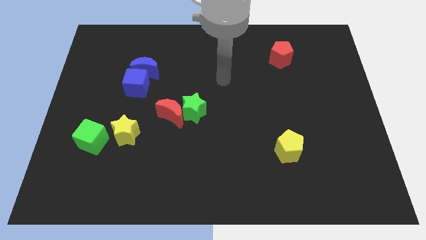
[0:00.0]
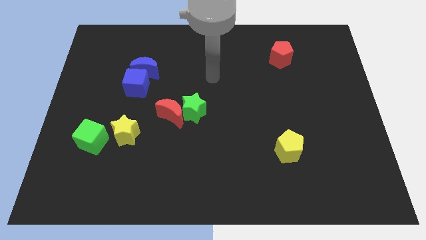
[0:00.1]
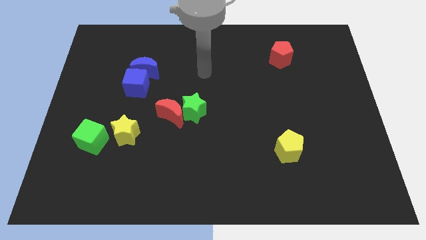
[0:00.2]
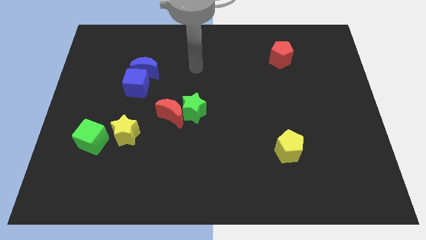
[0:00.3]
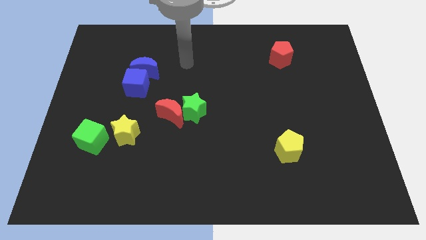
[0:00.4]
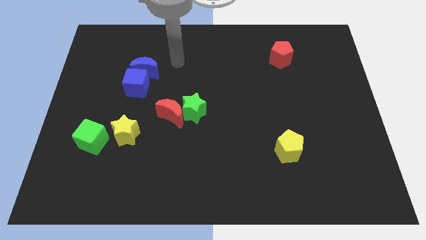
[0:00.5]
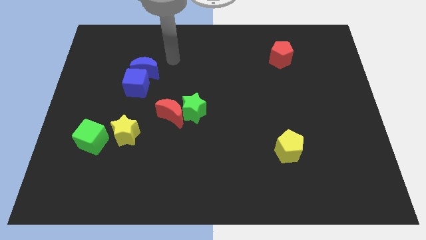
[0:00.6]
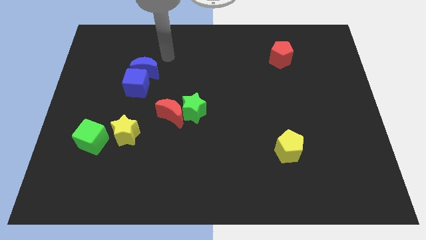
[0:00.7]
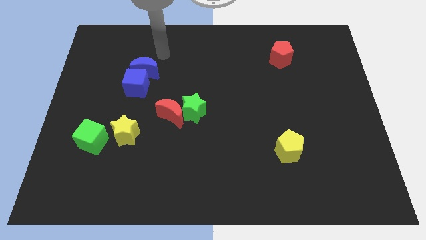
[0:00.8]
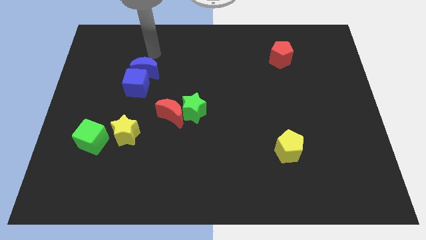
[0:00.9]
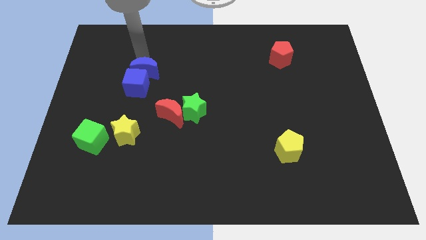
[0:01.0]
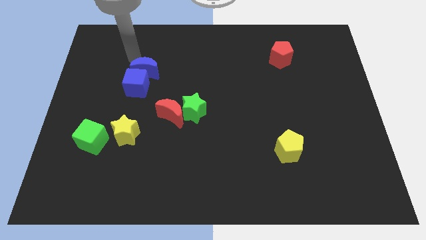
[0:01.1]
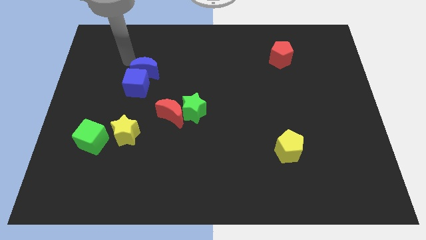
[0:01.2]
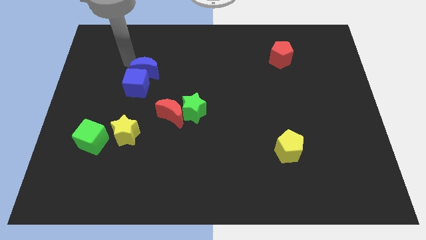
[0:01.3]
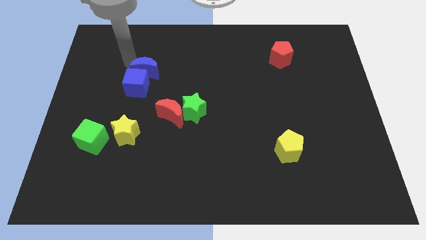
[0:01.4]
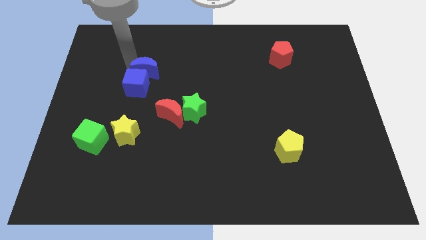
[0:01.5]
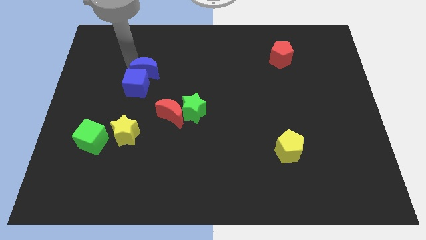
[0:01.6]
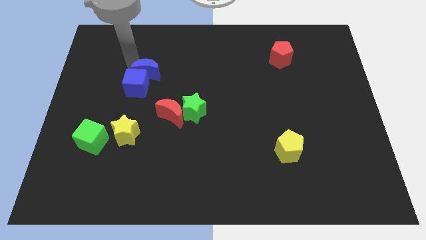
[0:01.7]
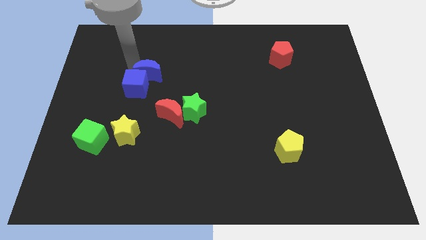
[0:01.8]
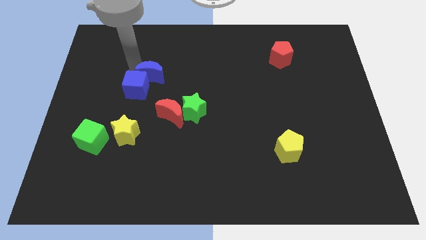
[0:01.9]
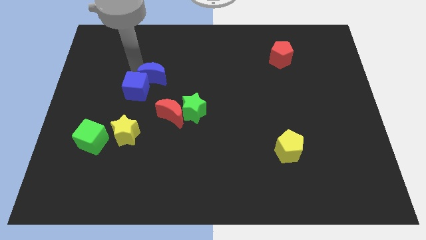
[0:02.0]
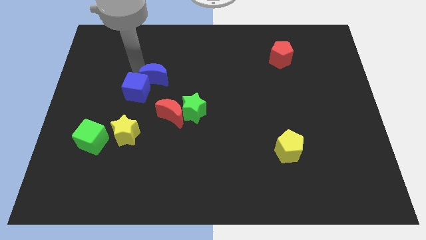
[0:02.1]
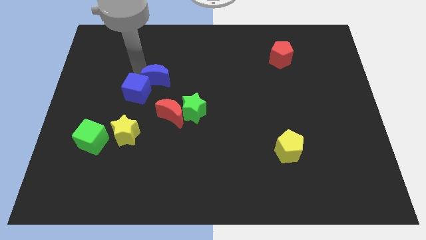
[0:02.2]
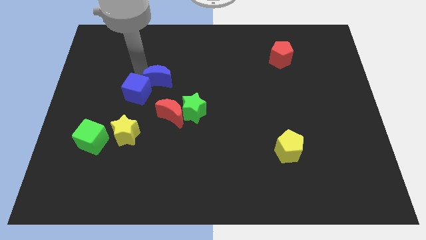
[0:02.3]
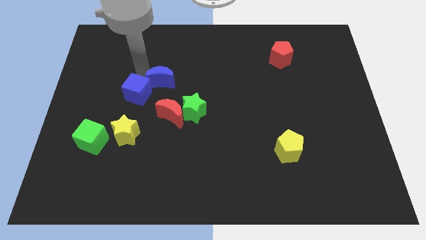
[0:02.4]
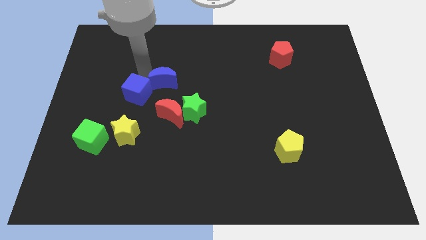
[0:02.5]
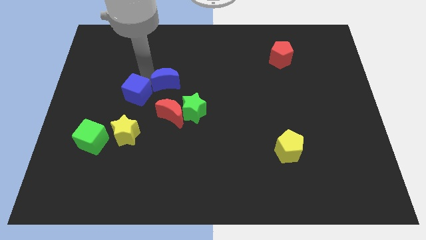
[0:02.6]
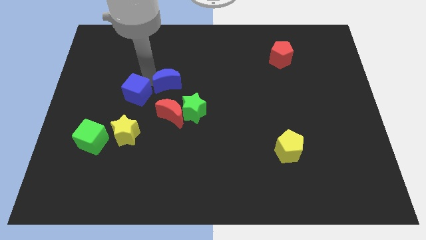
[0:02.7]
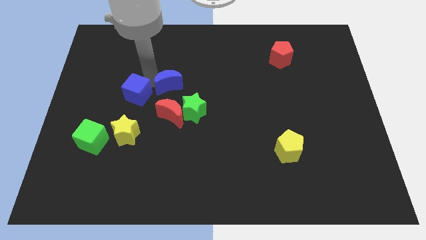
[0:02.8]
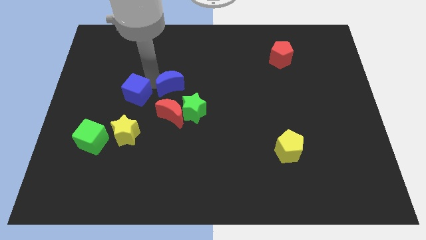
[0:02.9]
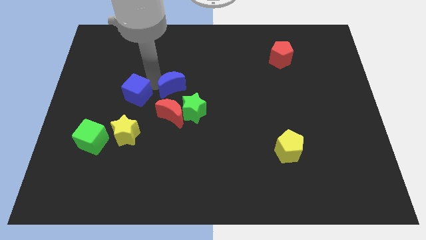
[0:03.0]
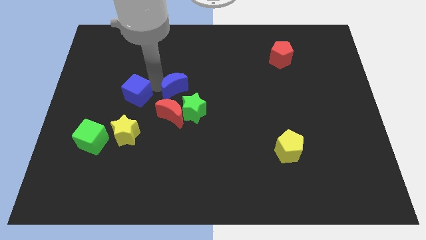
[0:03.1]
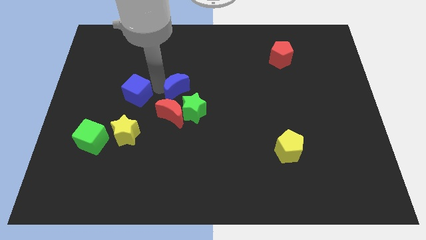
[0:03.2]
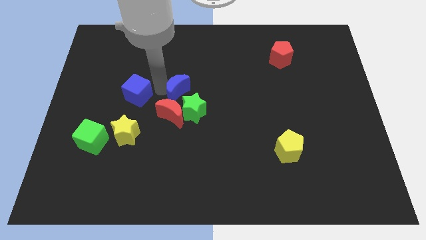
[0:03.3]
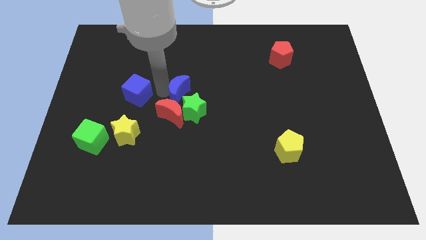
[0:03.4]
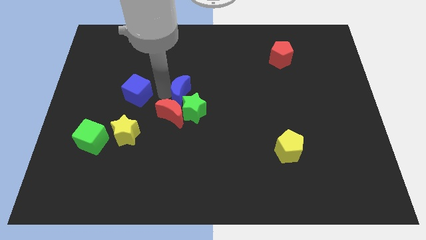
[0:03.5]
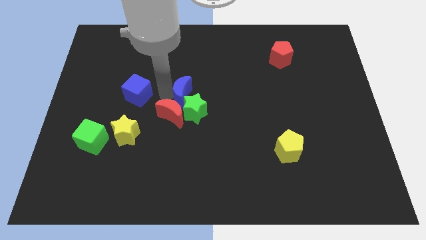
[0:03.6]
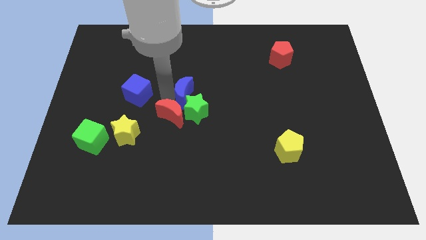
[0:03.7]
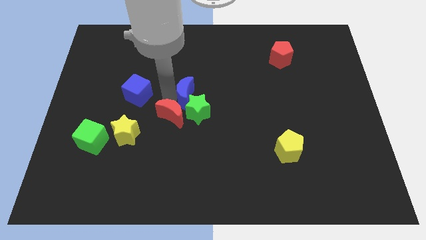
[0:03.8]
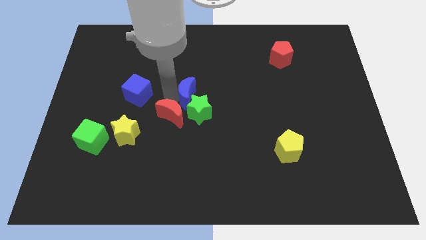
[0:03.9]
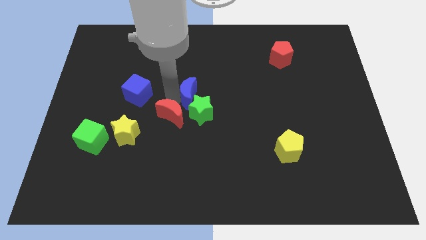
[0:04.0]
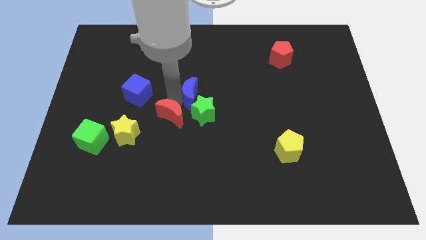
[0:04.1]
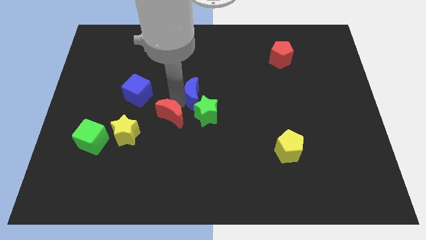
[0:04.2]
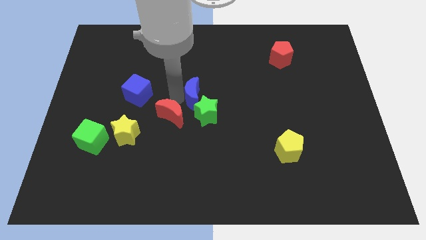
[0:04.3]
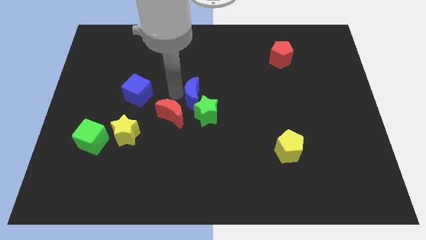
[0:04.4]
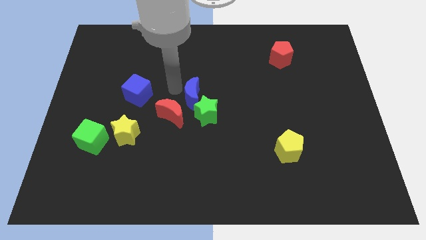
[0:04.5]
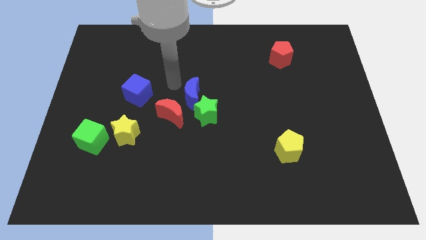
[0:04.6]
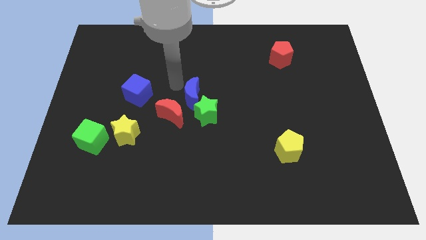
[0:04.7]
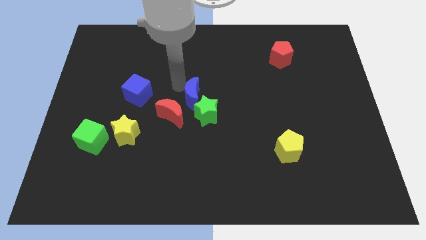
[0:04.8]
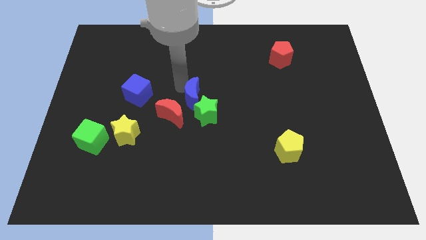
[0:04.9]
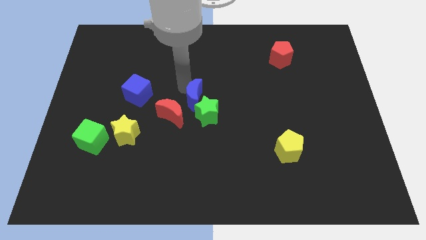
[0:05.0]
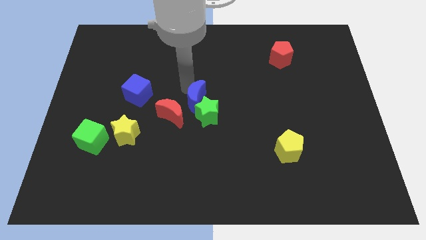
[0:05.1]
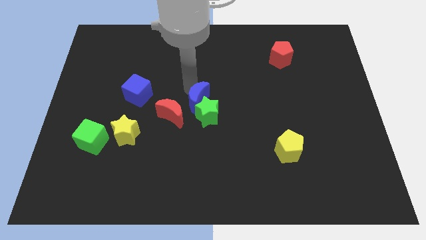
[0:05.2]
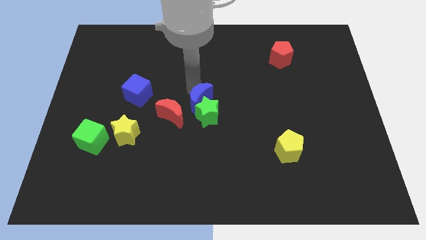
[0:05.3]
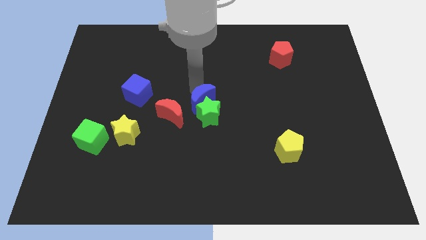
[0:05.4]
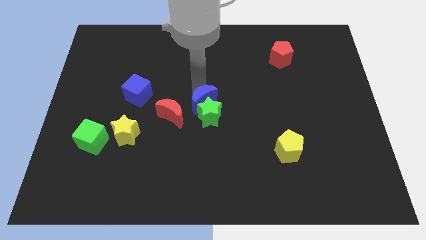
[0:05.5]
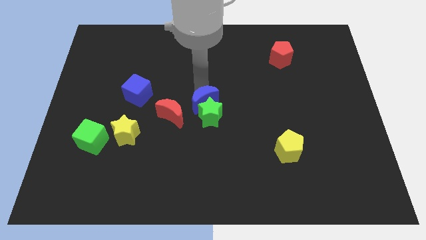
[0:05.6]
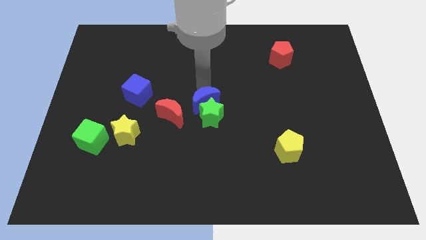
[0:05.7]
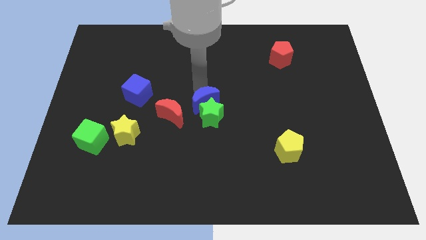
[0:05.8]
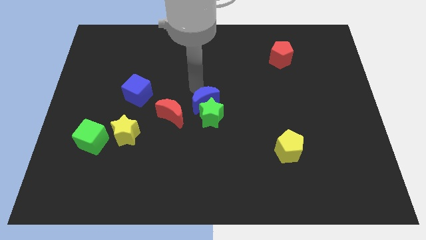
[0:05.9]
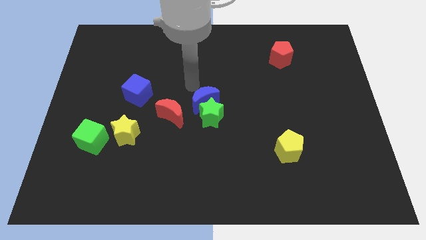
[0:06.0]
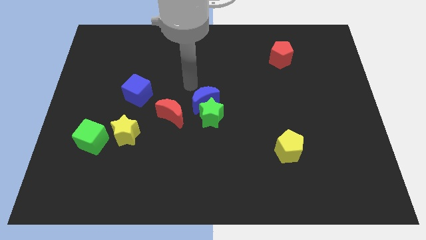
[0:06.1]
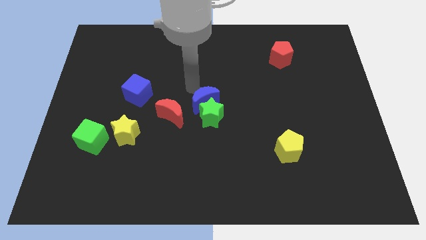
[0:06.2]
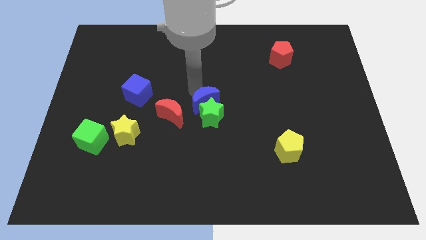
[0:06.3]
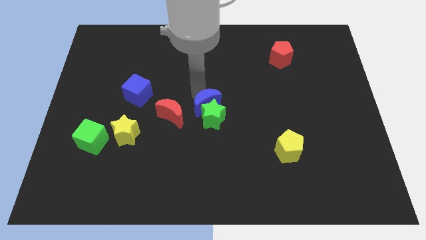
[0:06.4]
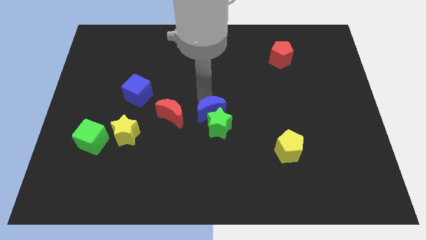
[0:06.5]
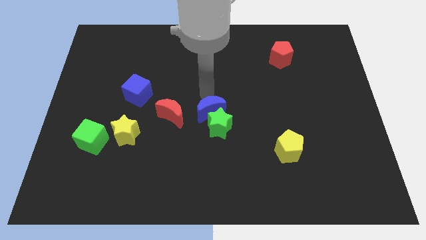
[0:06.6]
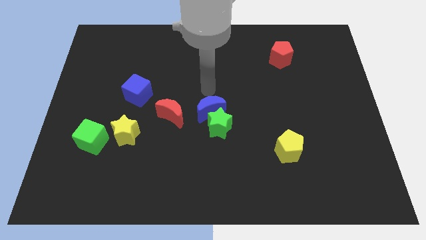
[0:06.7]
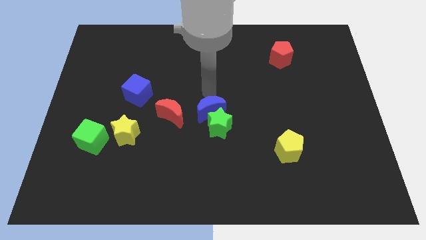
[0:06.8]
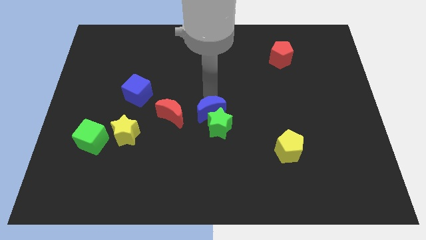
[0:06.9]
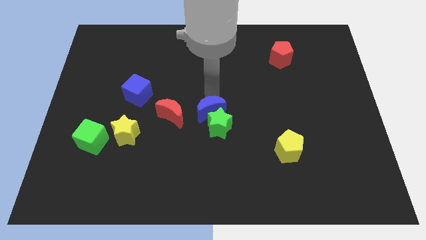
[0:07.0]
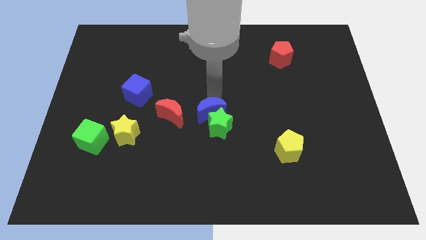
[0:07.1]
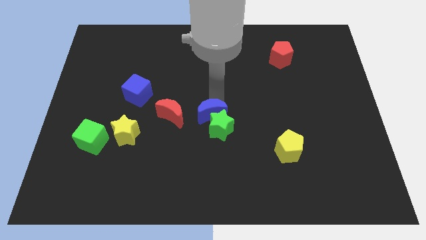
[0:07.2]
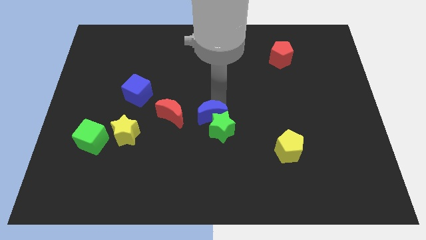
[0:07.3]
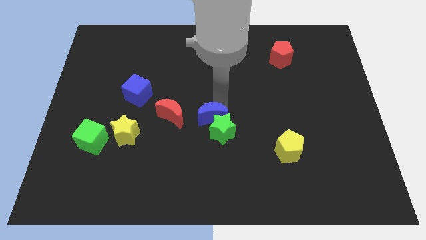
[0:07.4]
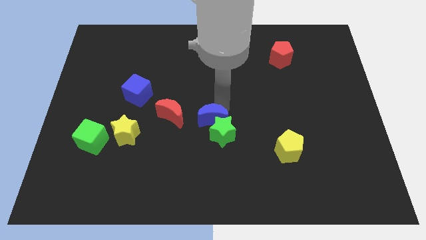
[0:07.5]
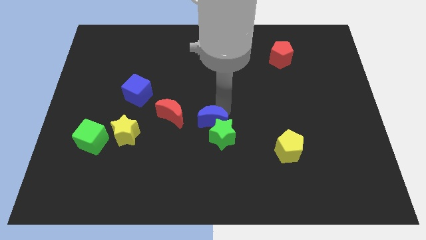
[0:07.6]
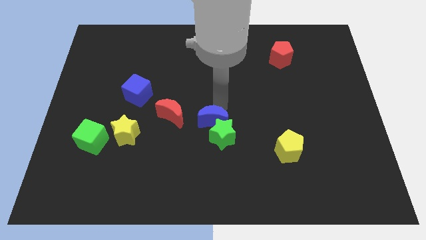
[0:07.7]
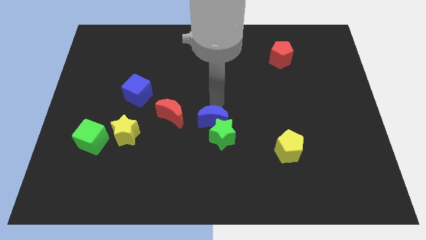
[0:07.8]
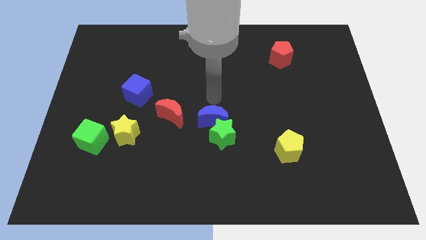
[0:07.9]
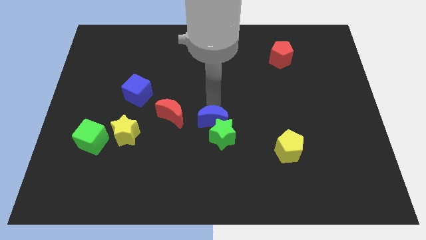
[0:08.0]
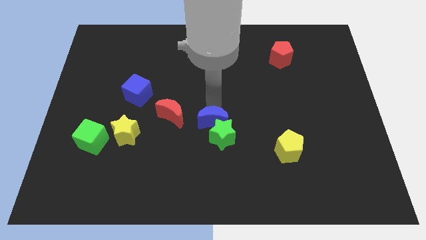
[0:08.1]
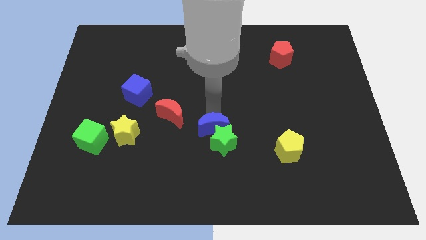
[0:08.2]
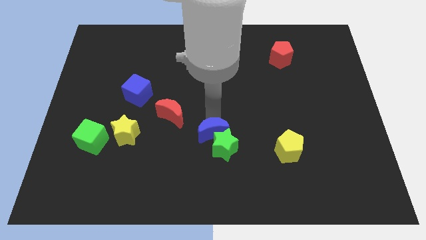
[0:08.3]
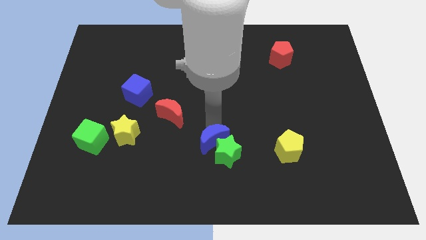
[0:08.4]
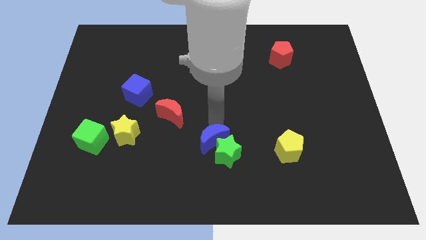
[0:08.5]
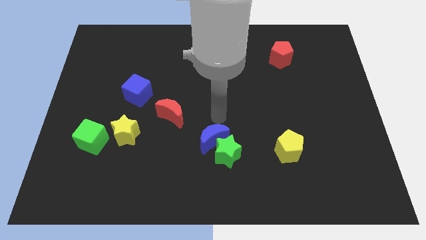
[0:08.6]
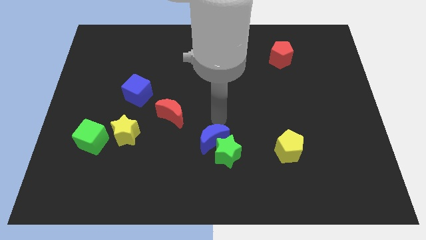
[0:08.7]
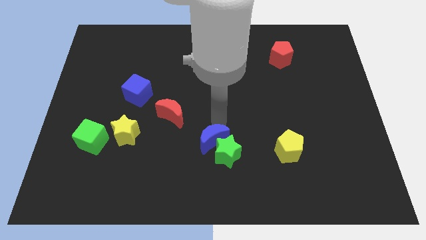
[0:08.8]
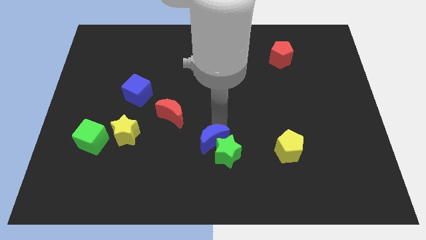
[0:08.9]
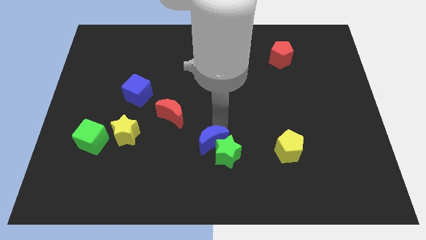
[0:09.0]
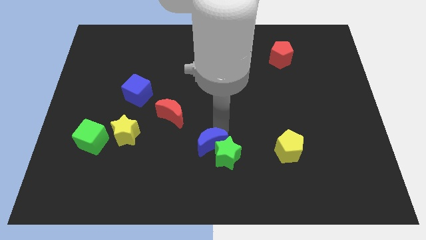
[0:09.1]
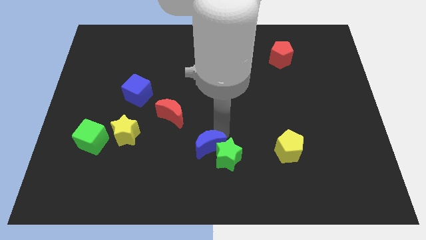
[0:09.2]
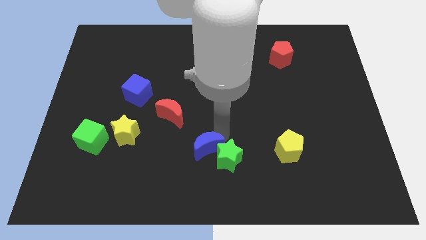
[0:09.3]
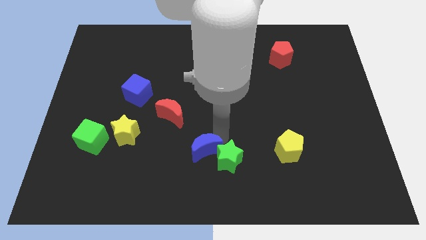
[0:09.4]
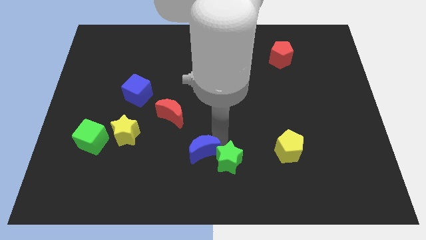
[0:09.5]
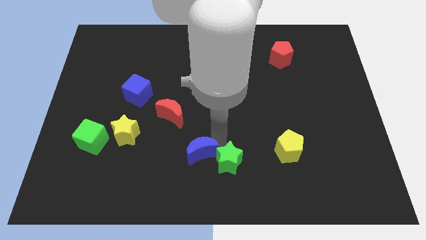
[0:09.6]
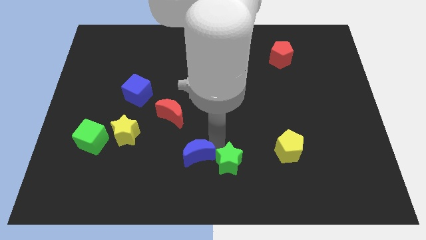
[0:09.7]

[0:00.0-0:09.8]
push the blue moon to the bottom
